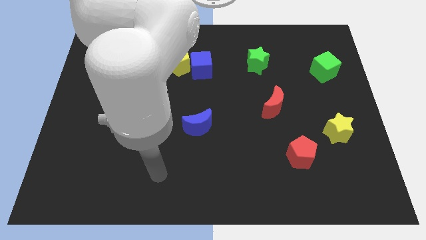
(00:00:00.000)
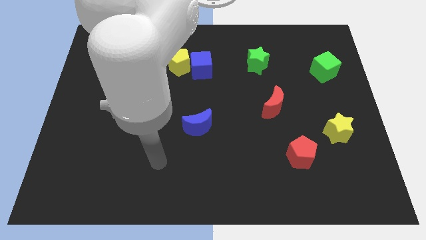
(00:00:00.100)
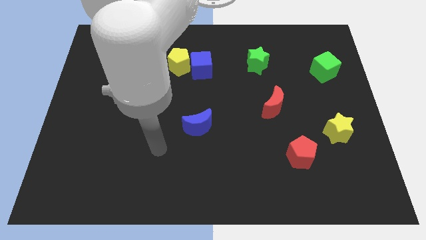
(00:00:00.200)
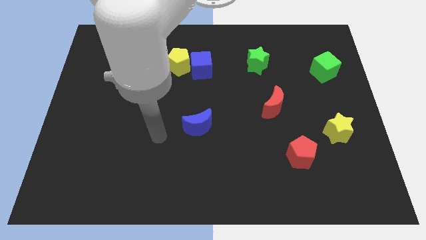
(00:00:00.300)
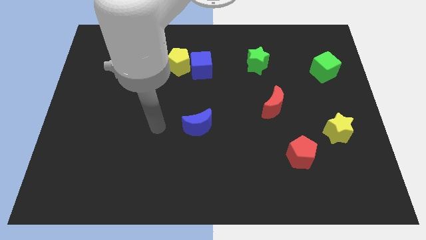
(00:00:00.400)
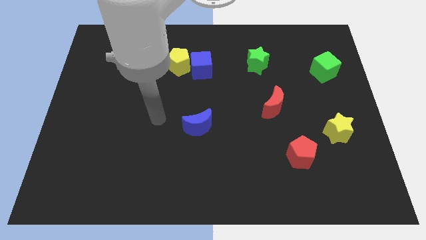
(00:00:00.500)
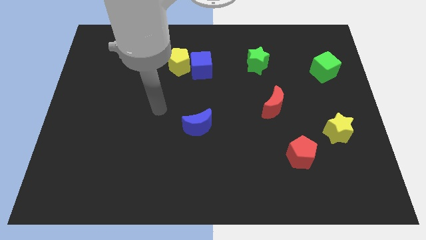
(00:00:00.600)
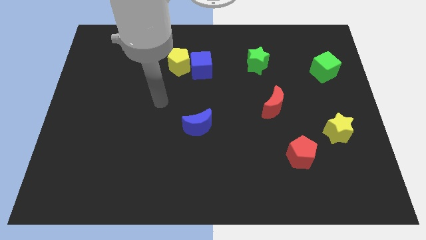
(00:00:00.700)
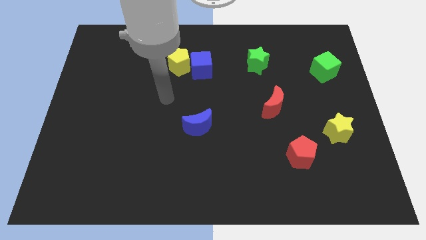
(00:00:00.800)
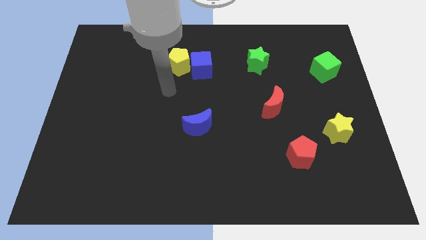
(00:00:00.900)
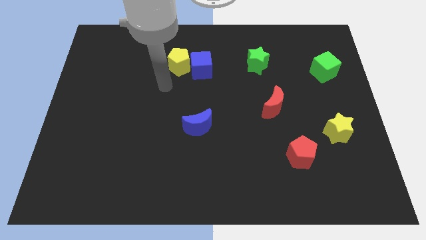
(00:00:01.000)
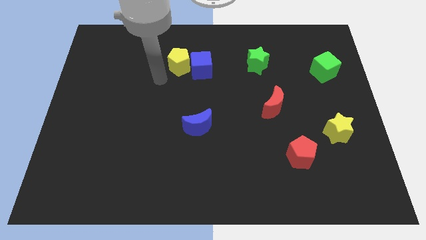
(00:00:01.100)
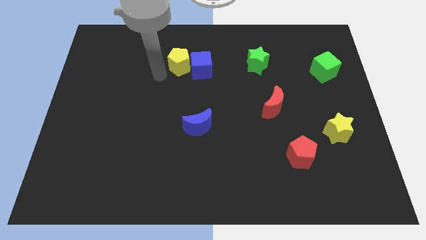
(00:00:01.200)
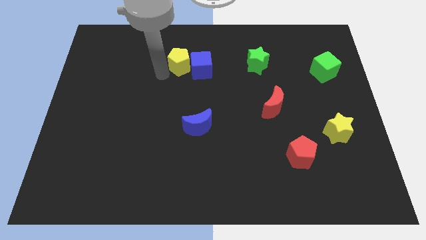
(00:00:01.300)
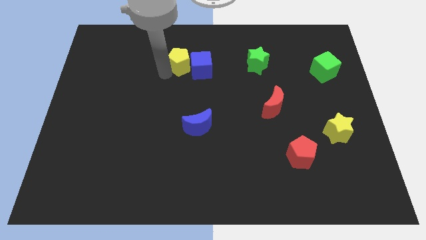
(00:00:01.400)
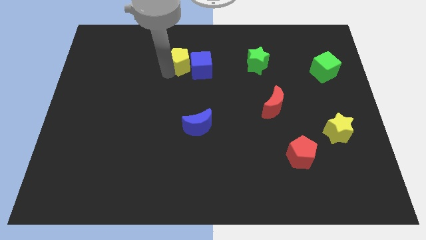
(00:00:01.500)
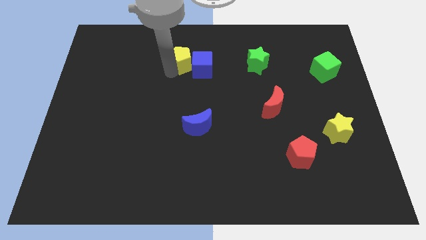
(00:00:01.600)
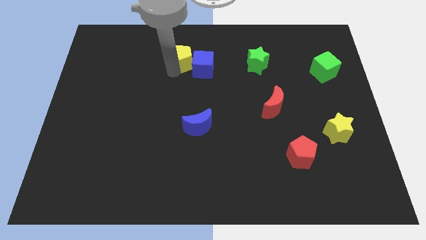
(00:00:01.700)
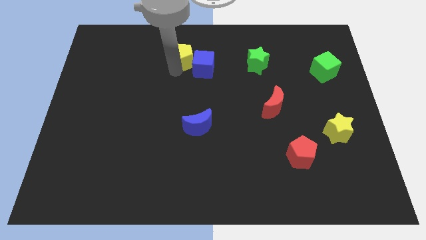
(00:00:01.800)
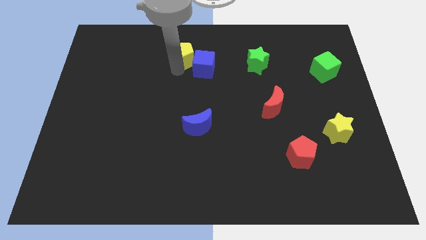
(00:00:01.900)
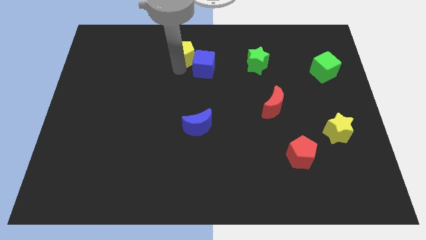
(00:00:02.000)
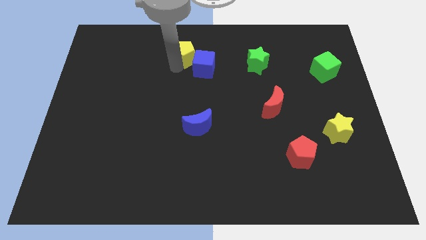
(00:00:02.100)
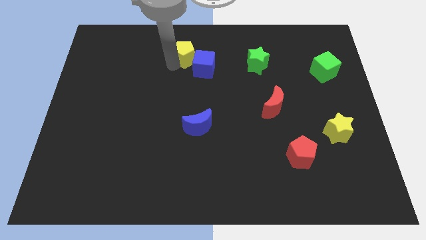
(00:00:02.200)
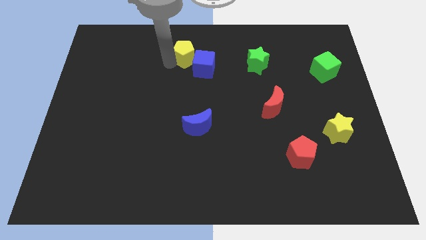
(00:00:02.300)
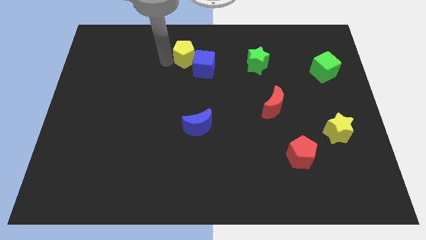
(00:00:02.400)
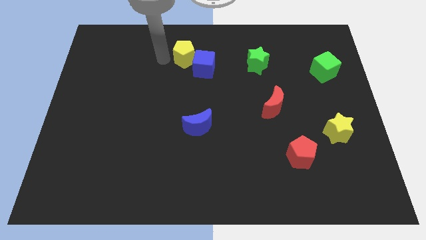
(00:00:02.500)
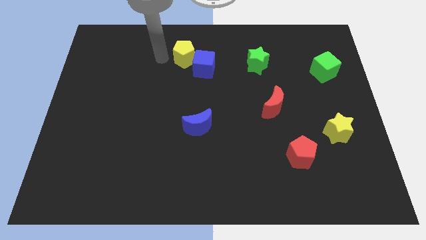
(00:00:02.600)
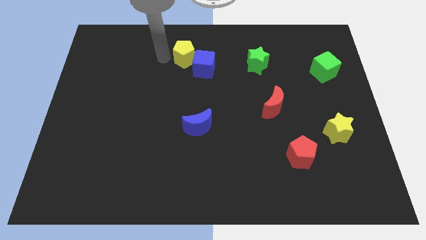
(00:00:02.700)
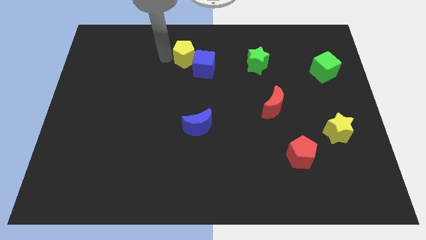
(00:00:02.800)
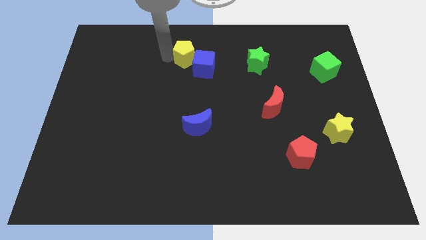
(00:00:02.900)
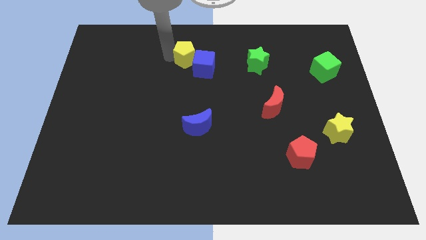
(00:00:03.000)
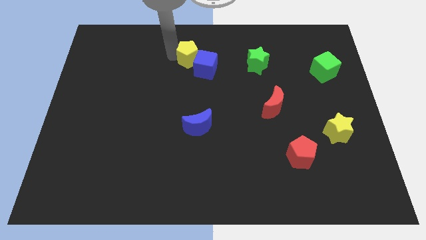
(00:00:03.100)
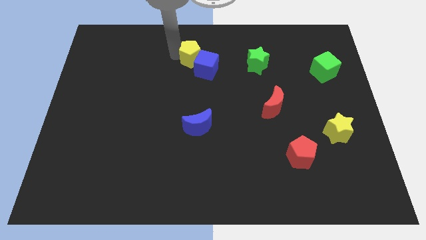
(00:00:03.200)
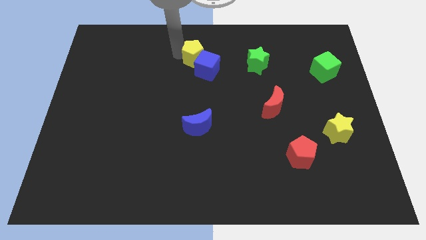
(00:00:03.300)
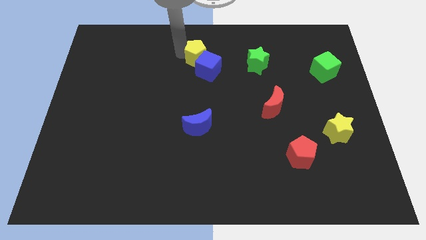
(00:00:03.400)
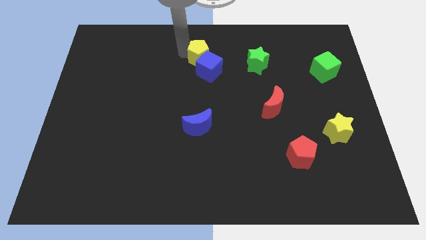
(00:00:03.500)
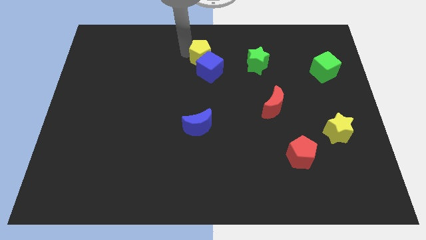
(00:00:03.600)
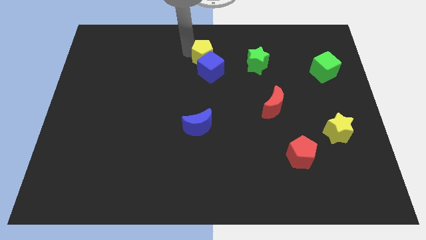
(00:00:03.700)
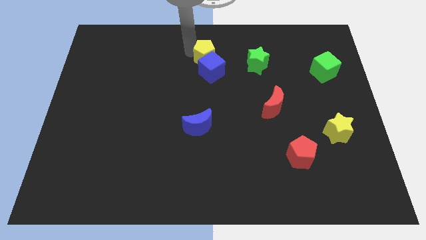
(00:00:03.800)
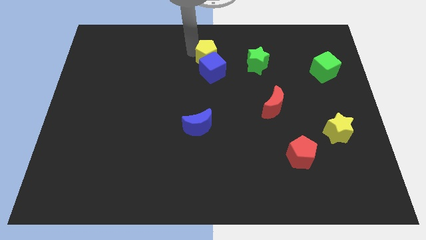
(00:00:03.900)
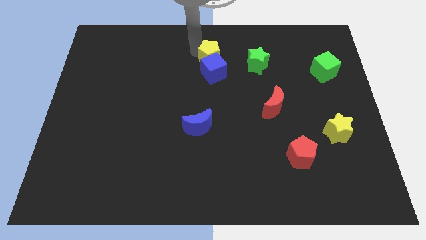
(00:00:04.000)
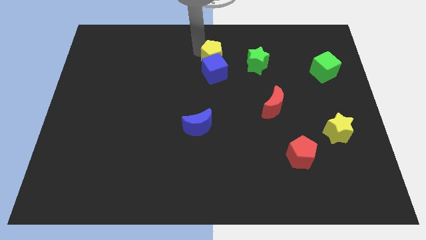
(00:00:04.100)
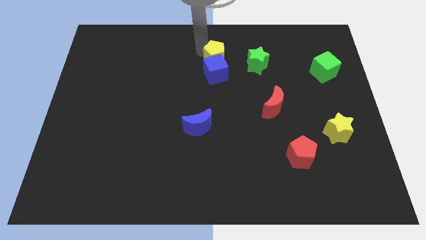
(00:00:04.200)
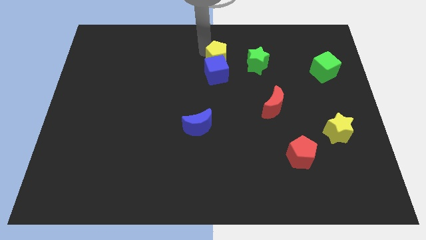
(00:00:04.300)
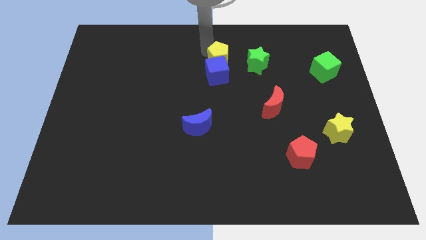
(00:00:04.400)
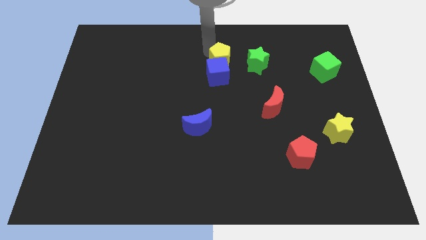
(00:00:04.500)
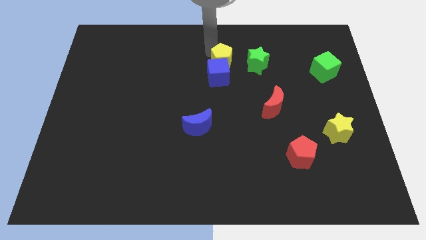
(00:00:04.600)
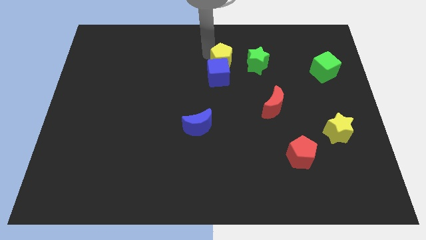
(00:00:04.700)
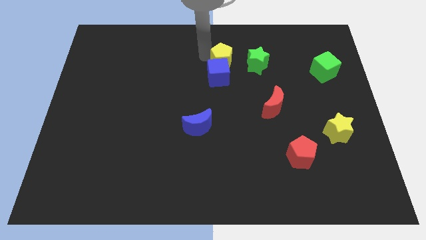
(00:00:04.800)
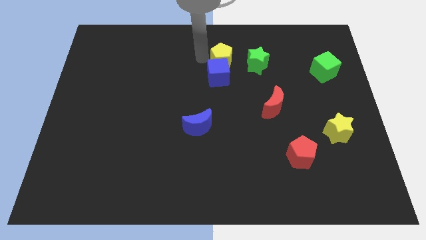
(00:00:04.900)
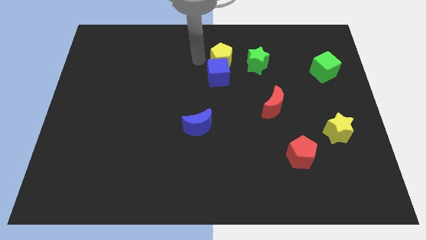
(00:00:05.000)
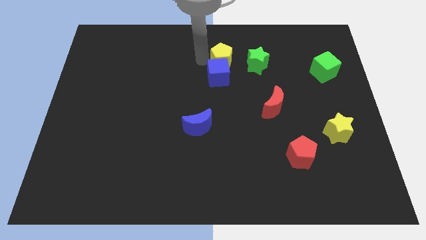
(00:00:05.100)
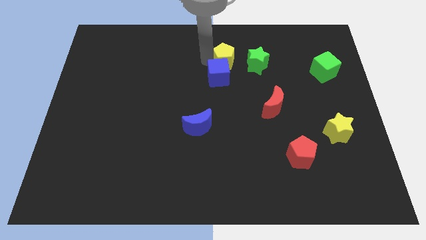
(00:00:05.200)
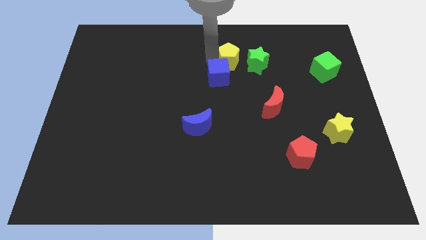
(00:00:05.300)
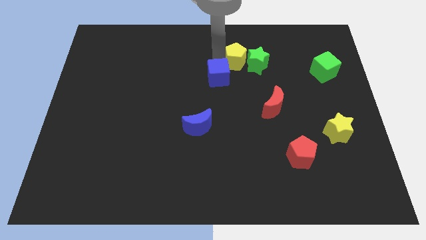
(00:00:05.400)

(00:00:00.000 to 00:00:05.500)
slide the yellow pentagon towards the green star
